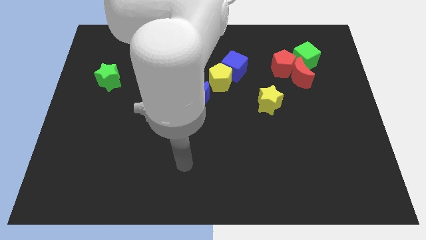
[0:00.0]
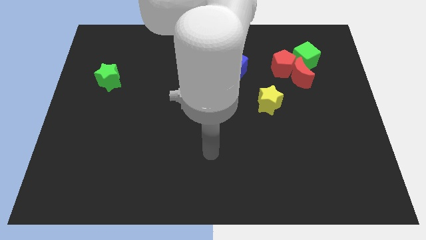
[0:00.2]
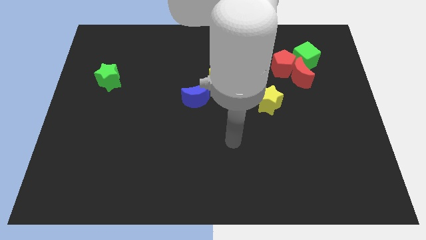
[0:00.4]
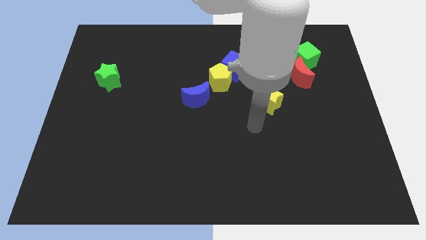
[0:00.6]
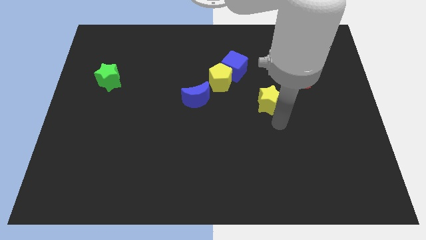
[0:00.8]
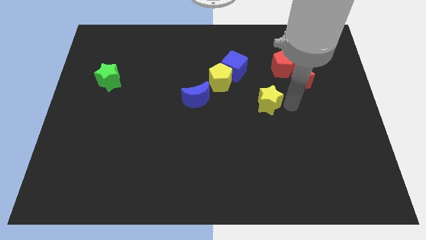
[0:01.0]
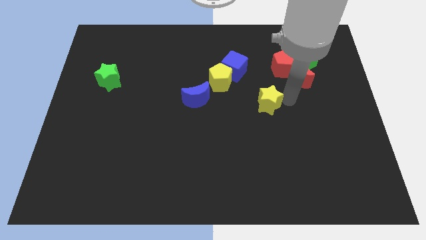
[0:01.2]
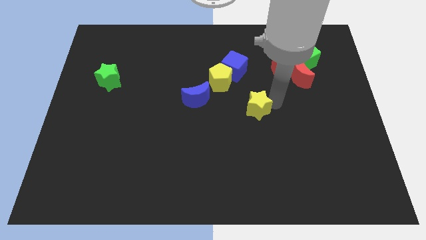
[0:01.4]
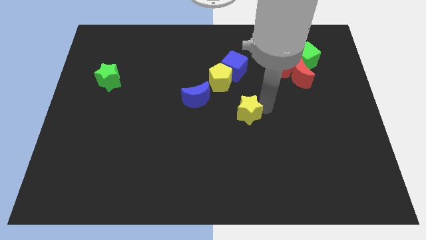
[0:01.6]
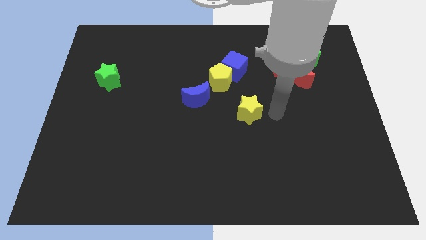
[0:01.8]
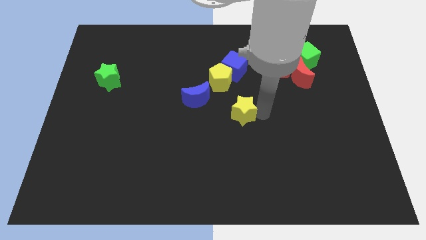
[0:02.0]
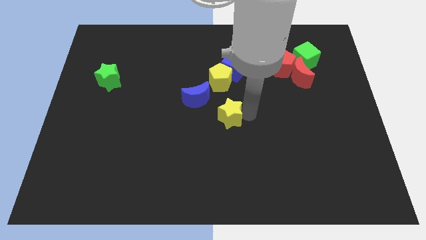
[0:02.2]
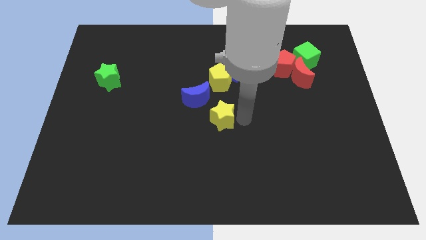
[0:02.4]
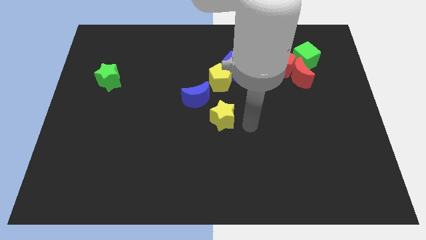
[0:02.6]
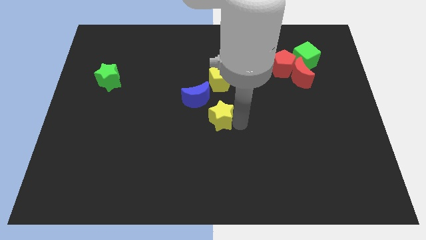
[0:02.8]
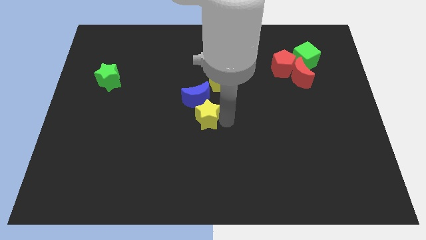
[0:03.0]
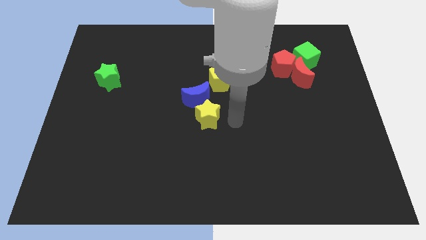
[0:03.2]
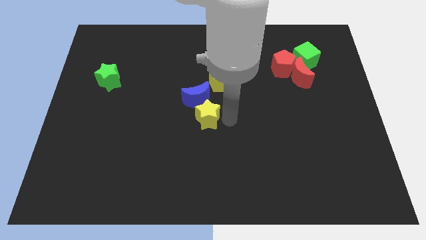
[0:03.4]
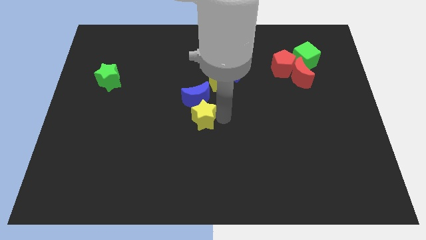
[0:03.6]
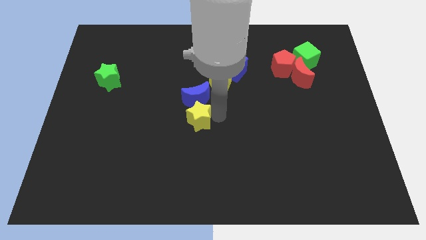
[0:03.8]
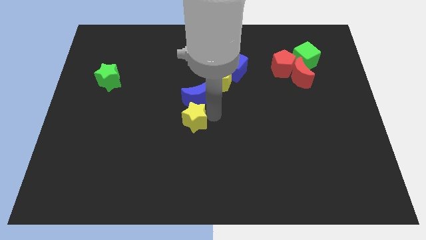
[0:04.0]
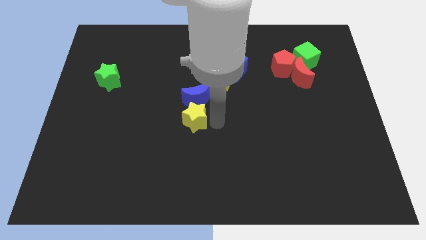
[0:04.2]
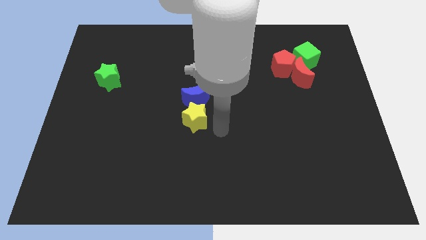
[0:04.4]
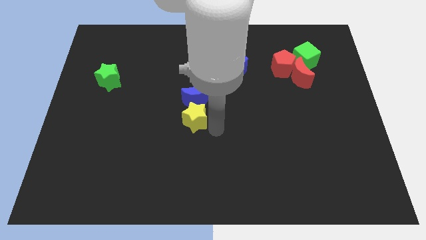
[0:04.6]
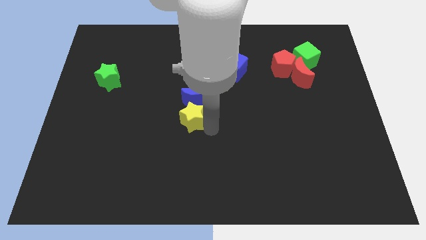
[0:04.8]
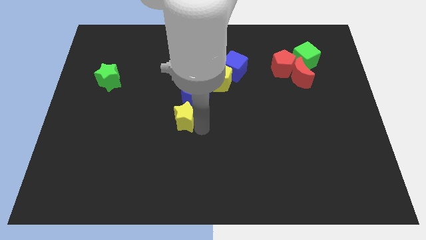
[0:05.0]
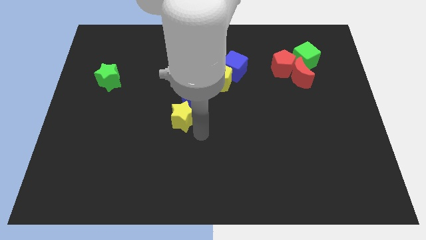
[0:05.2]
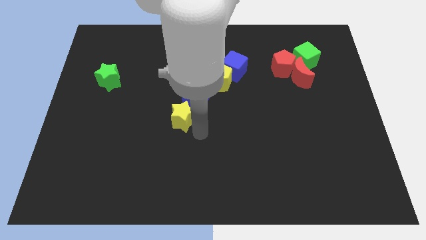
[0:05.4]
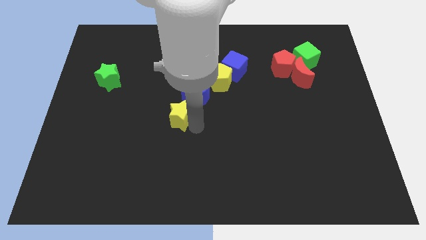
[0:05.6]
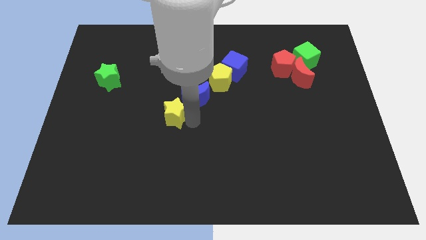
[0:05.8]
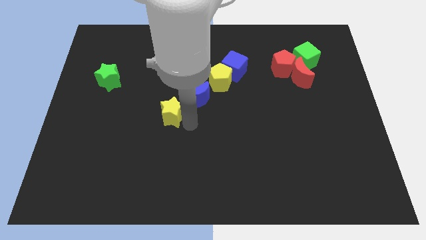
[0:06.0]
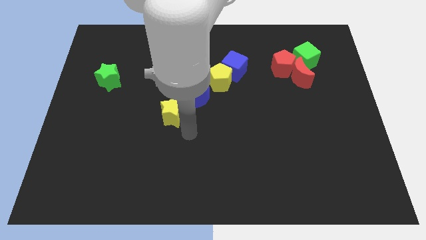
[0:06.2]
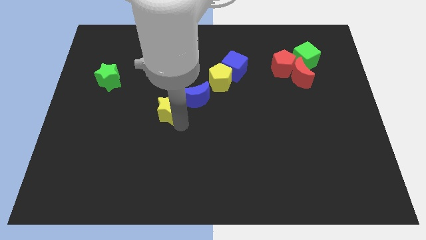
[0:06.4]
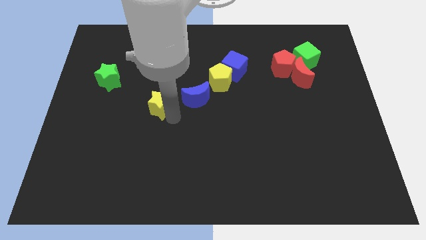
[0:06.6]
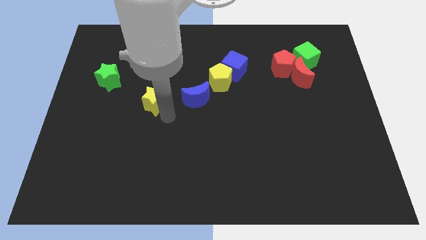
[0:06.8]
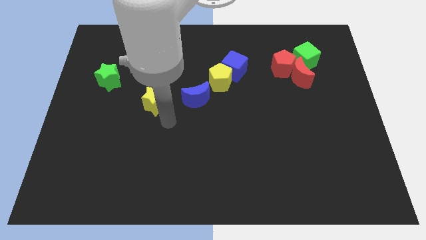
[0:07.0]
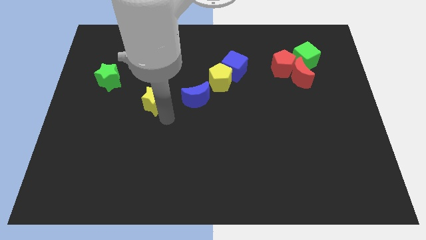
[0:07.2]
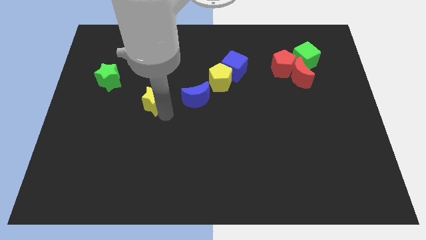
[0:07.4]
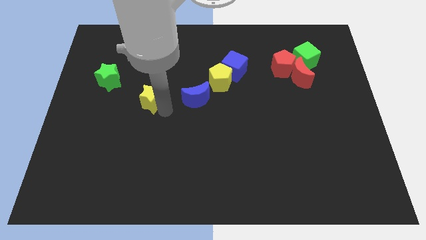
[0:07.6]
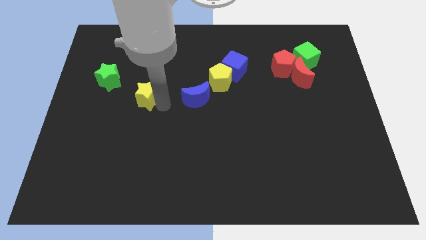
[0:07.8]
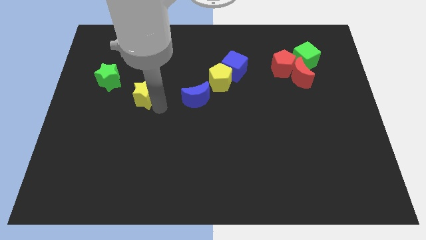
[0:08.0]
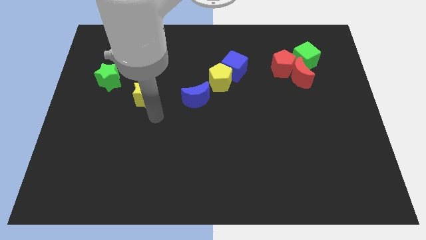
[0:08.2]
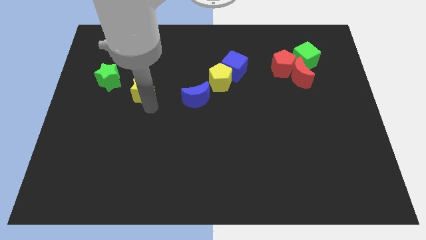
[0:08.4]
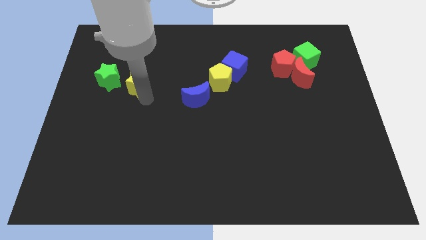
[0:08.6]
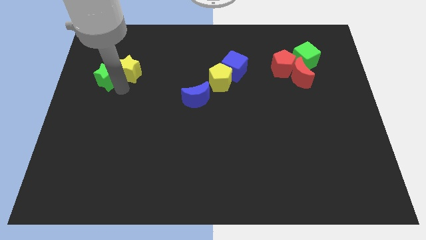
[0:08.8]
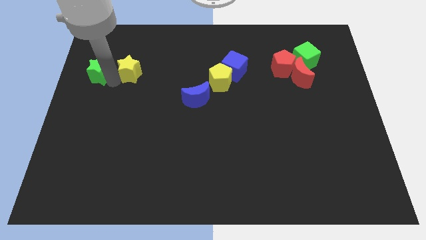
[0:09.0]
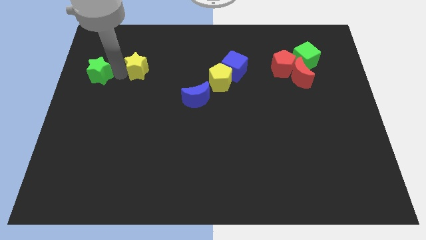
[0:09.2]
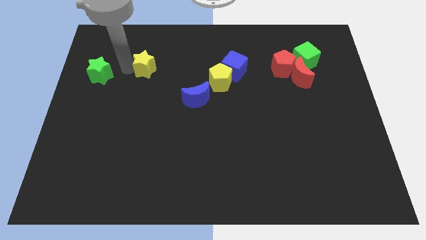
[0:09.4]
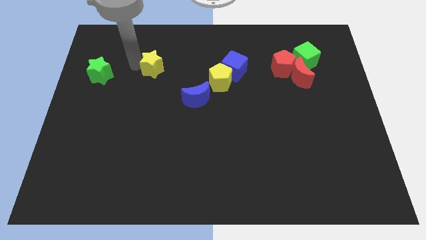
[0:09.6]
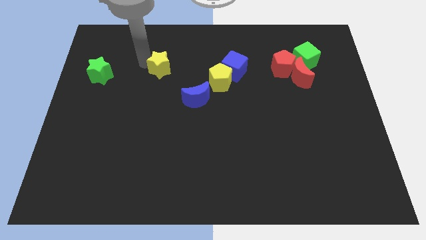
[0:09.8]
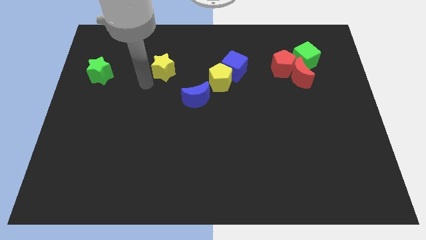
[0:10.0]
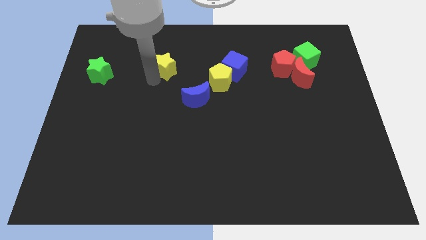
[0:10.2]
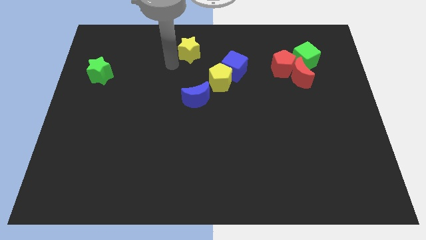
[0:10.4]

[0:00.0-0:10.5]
push the yellow star to the top

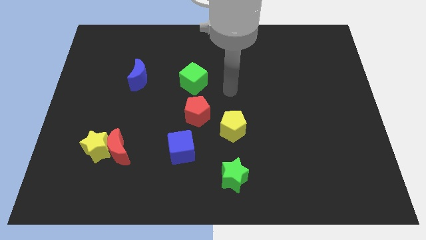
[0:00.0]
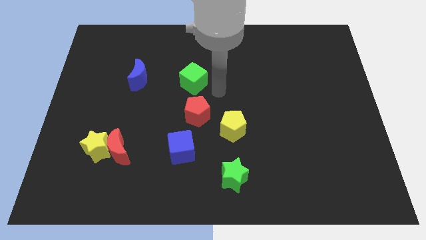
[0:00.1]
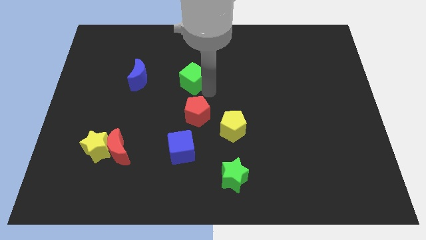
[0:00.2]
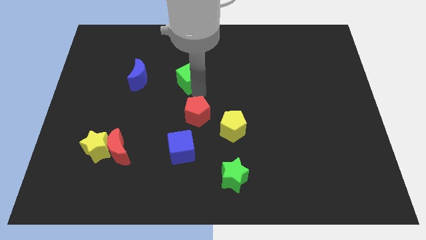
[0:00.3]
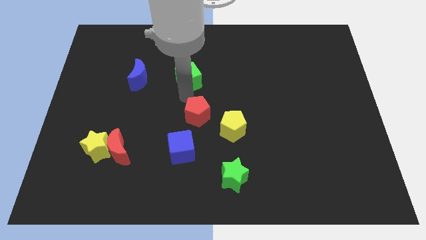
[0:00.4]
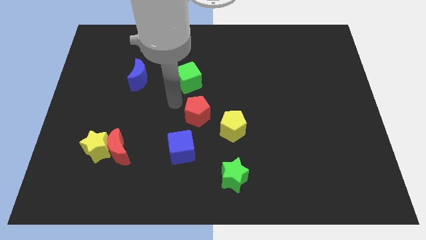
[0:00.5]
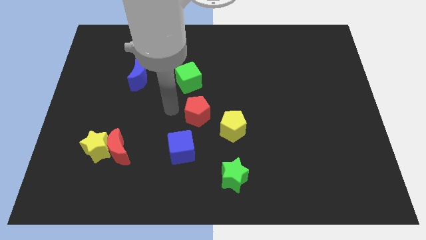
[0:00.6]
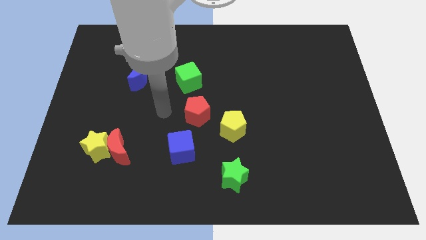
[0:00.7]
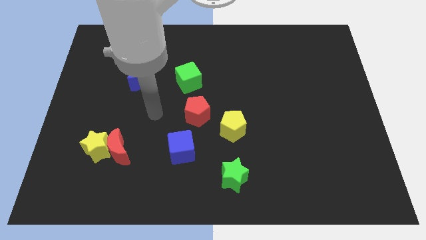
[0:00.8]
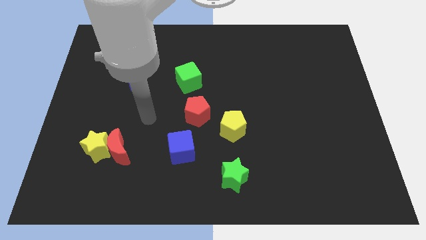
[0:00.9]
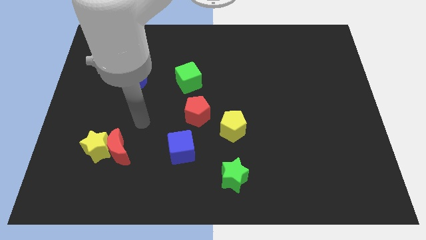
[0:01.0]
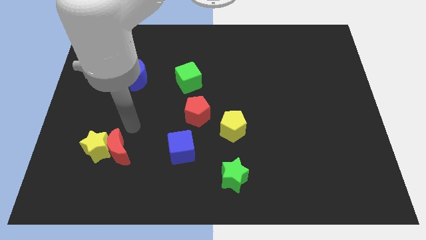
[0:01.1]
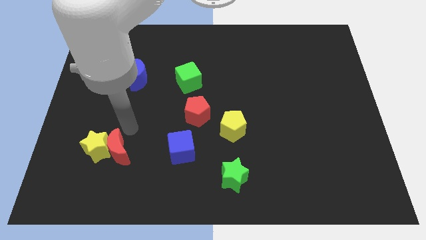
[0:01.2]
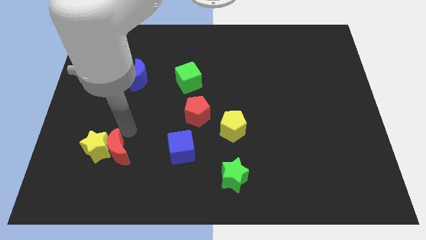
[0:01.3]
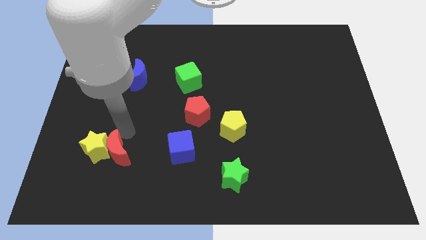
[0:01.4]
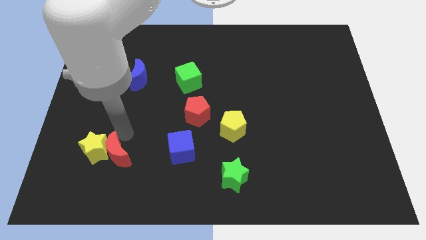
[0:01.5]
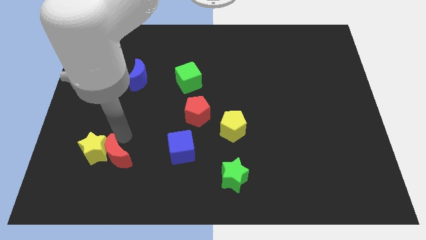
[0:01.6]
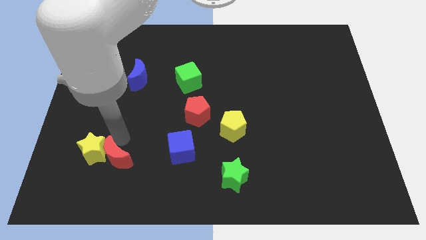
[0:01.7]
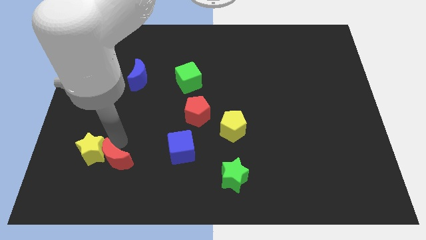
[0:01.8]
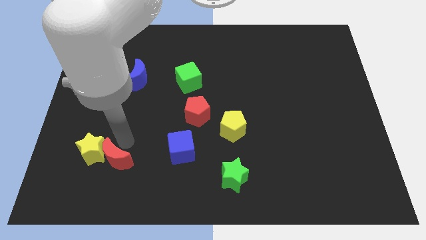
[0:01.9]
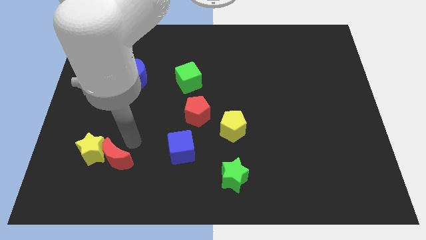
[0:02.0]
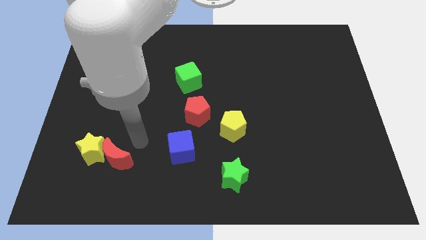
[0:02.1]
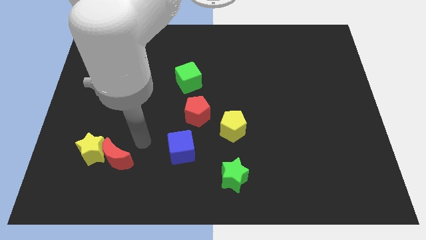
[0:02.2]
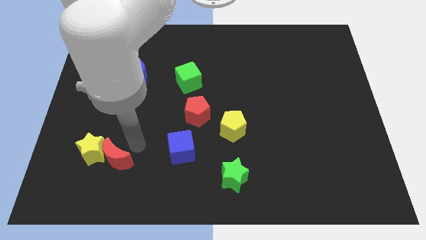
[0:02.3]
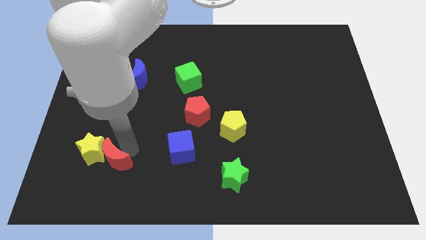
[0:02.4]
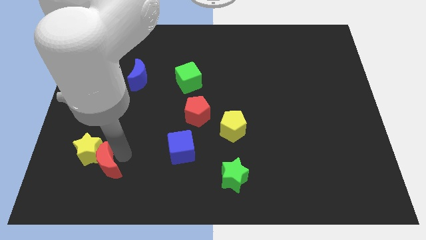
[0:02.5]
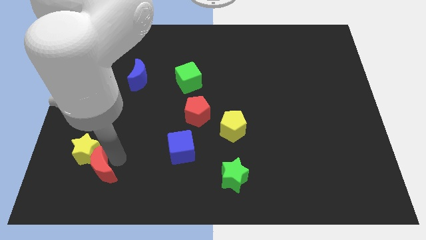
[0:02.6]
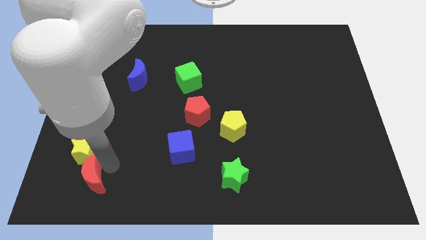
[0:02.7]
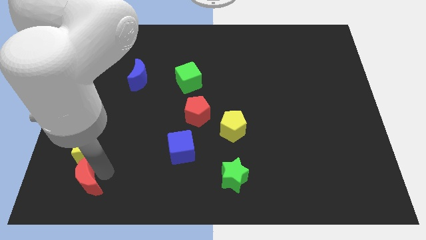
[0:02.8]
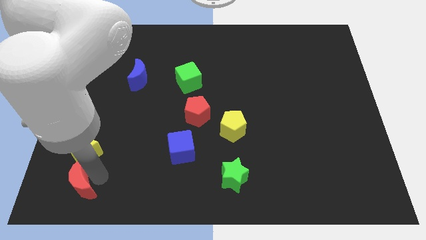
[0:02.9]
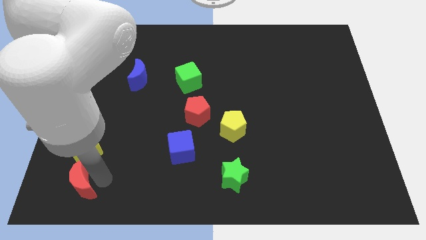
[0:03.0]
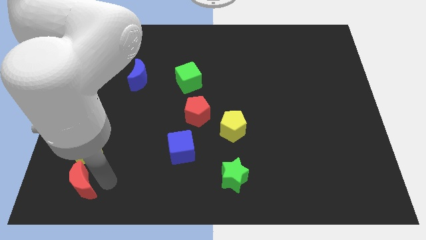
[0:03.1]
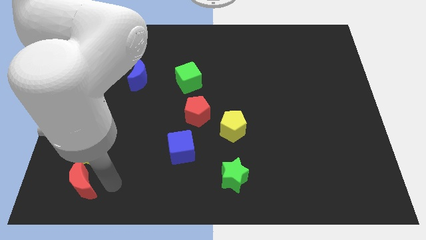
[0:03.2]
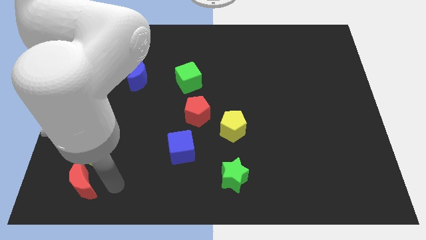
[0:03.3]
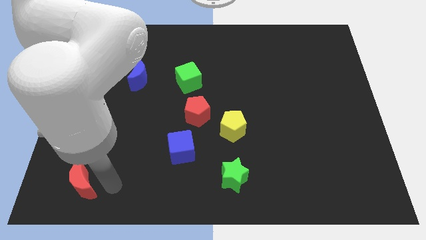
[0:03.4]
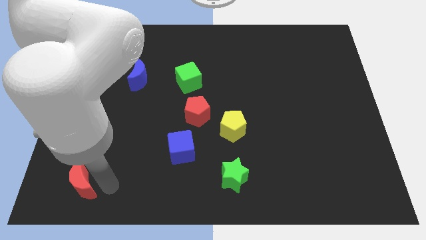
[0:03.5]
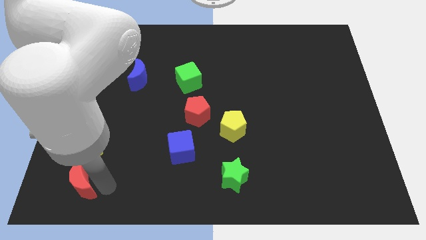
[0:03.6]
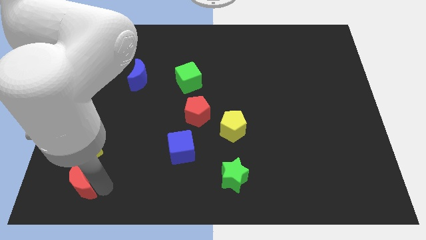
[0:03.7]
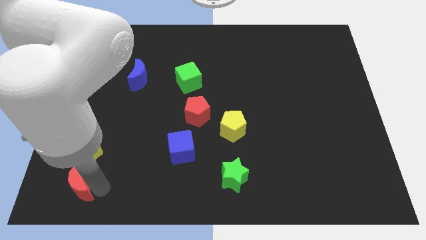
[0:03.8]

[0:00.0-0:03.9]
push the red moon to the lower left corner
